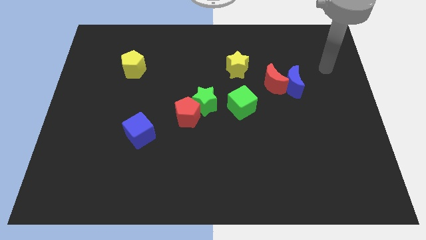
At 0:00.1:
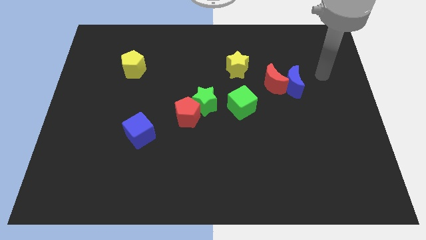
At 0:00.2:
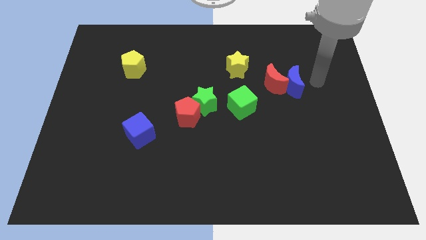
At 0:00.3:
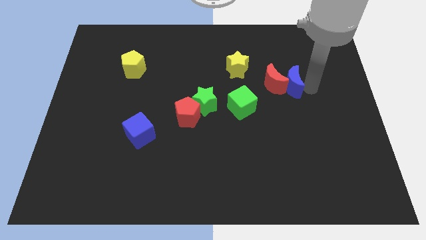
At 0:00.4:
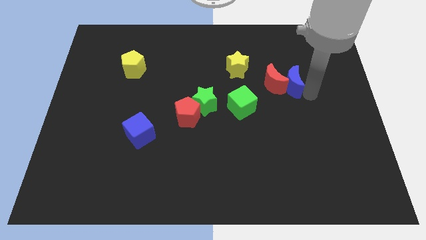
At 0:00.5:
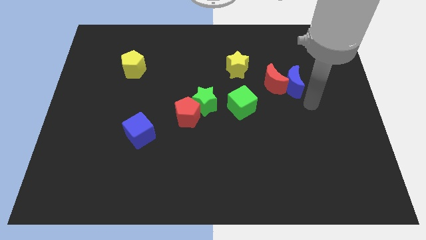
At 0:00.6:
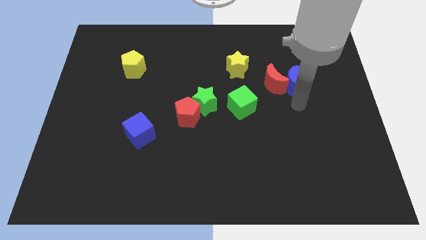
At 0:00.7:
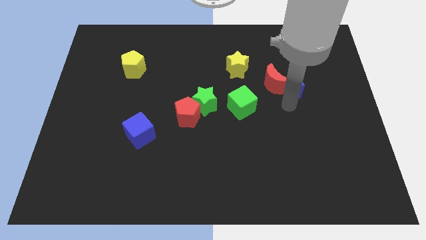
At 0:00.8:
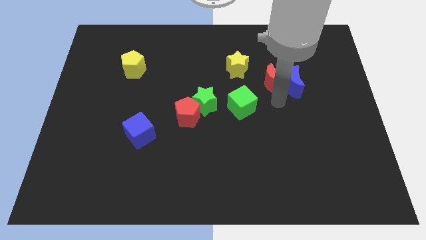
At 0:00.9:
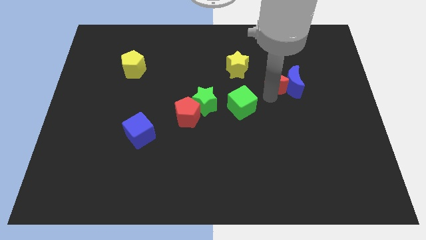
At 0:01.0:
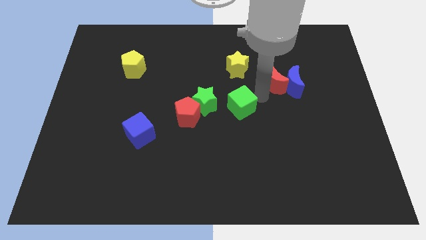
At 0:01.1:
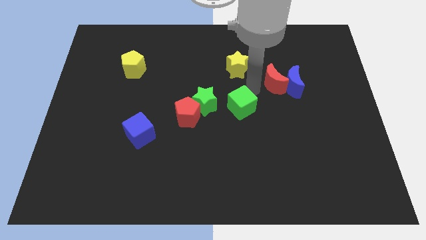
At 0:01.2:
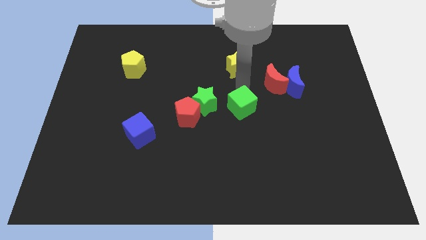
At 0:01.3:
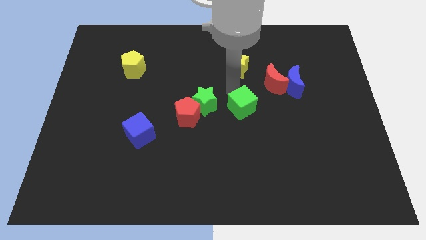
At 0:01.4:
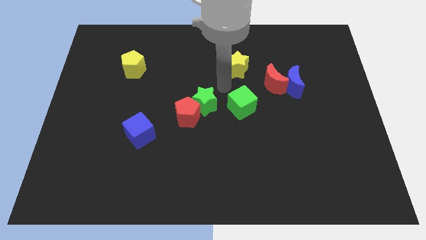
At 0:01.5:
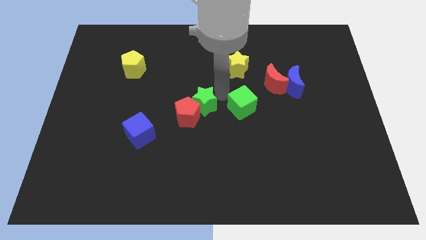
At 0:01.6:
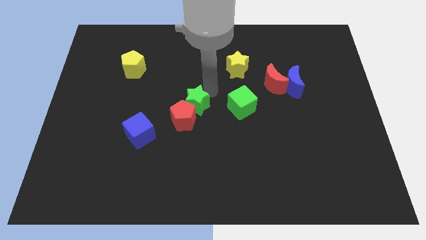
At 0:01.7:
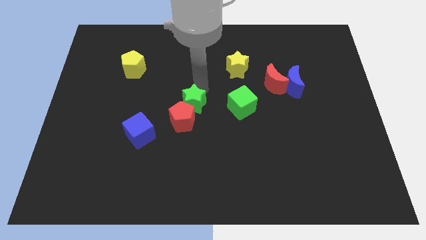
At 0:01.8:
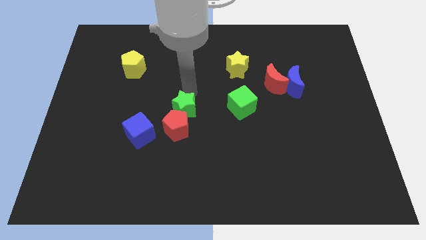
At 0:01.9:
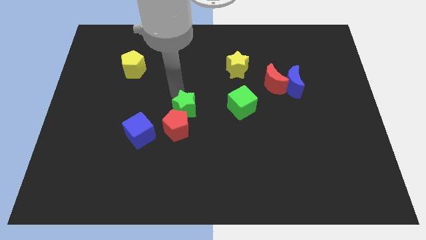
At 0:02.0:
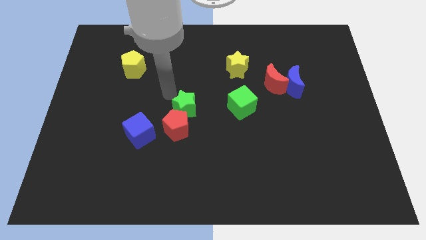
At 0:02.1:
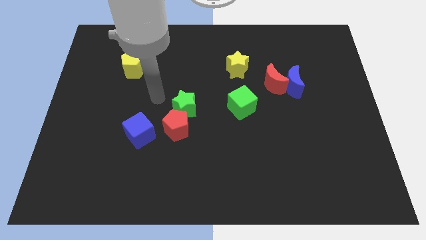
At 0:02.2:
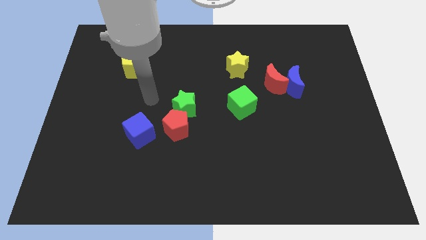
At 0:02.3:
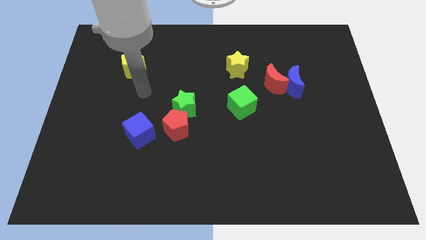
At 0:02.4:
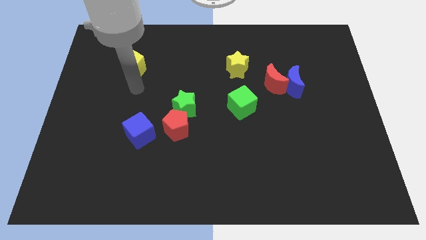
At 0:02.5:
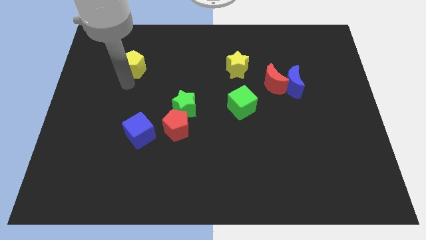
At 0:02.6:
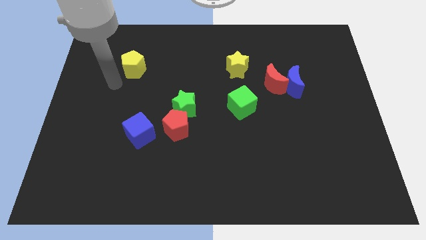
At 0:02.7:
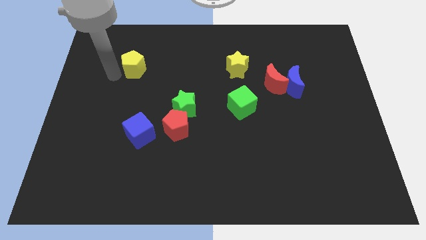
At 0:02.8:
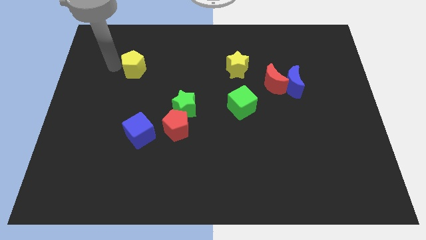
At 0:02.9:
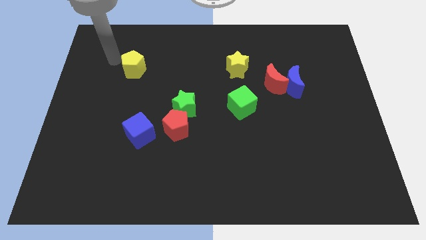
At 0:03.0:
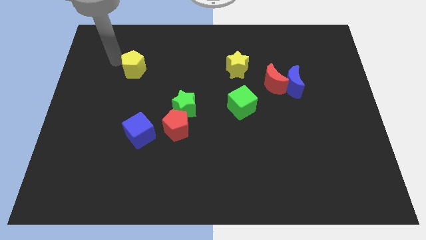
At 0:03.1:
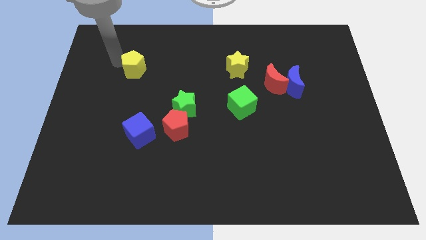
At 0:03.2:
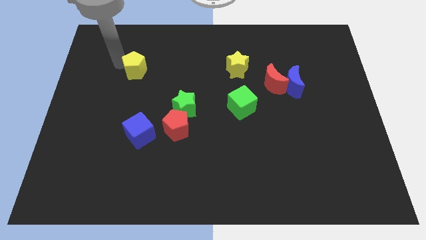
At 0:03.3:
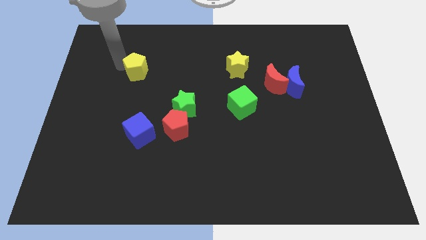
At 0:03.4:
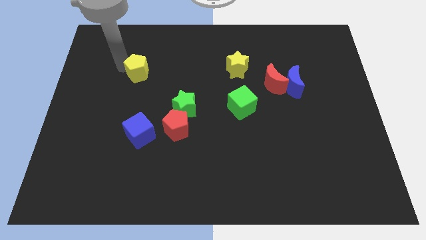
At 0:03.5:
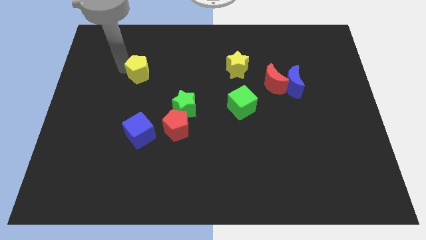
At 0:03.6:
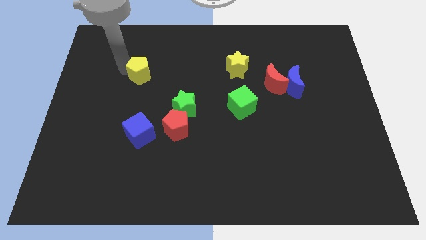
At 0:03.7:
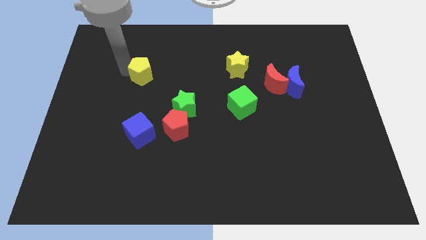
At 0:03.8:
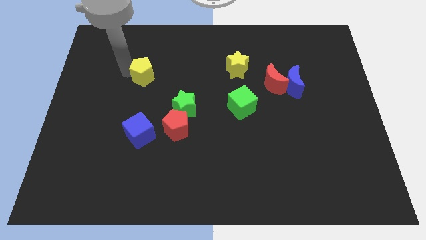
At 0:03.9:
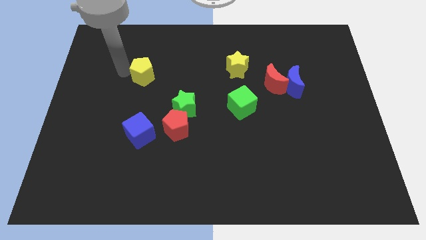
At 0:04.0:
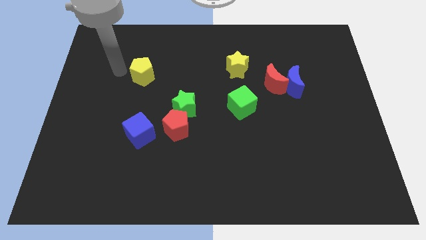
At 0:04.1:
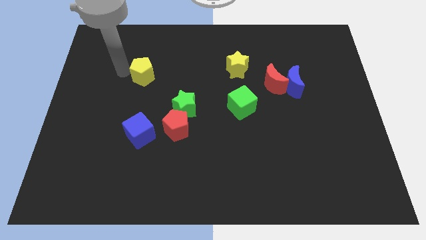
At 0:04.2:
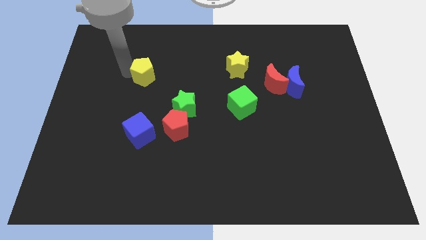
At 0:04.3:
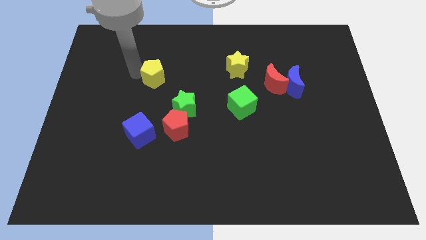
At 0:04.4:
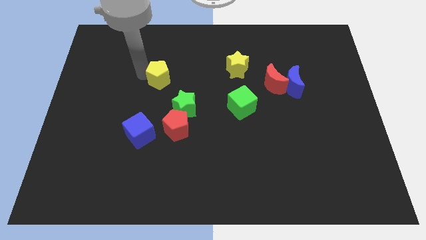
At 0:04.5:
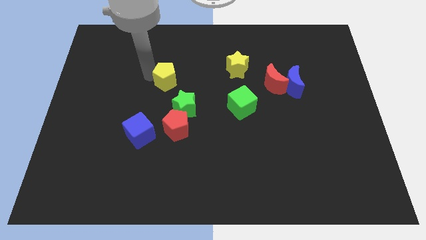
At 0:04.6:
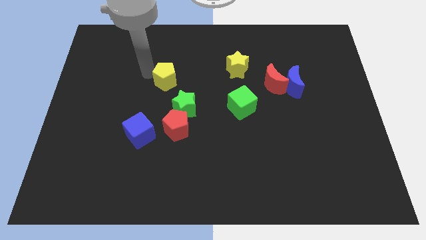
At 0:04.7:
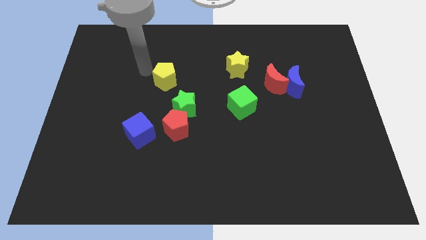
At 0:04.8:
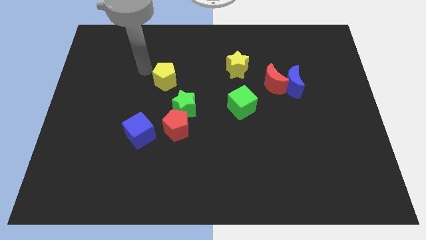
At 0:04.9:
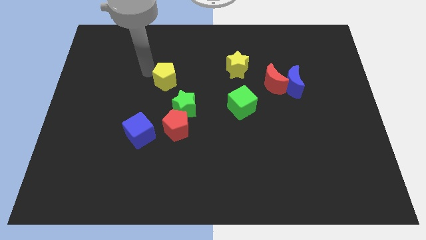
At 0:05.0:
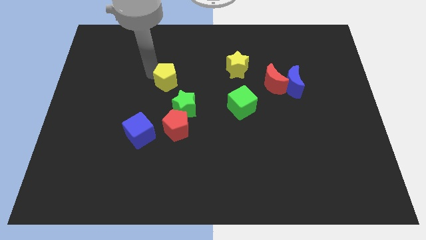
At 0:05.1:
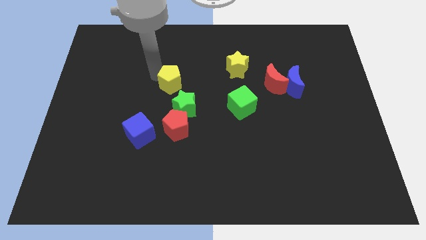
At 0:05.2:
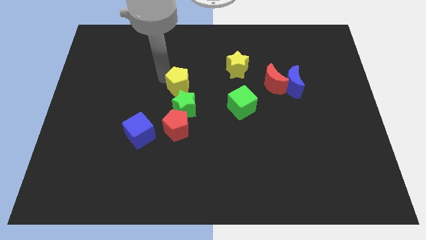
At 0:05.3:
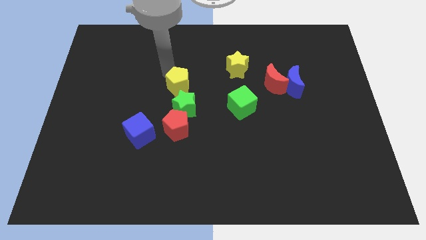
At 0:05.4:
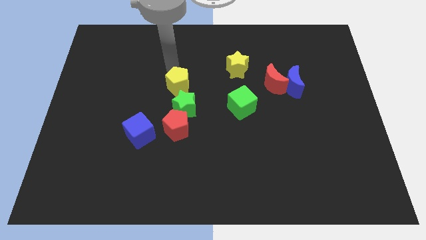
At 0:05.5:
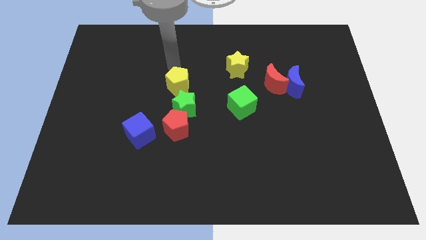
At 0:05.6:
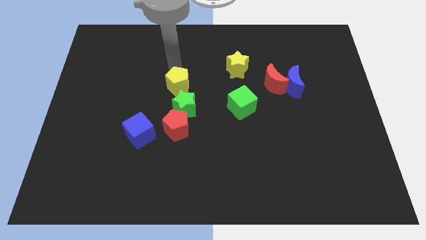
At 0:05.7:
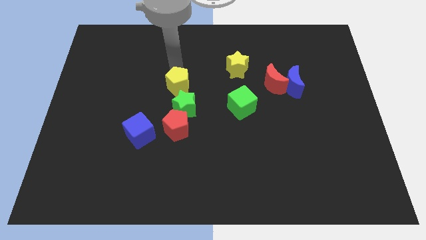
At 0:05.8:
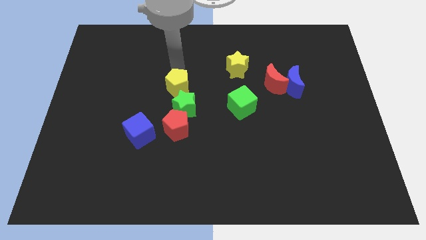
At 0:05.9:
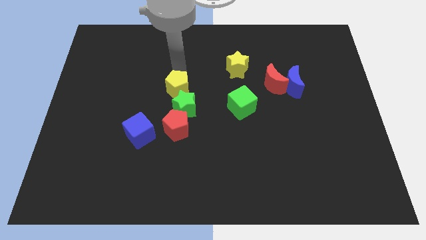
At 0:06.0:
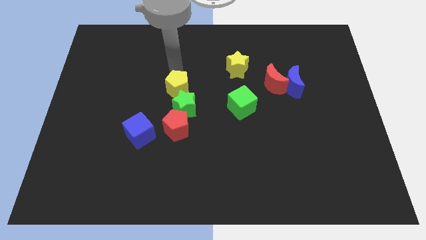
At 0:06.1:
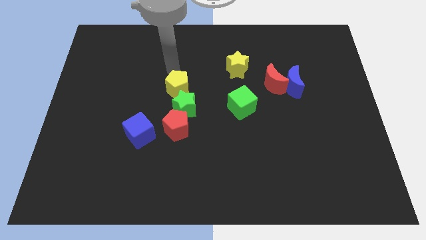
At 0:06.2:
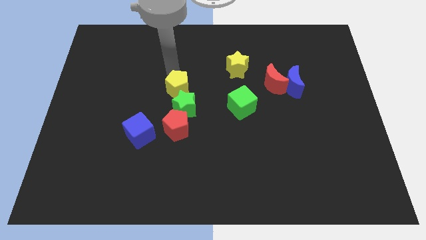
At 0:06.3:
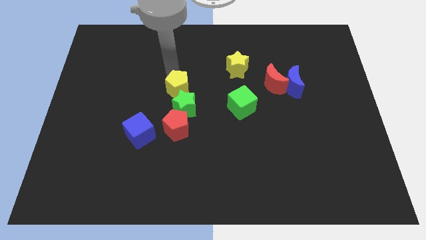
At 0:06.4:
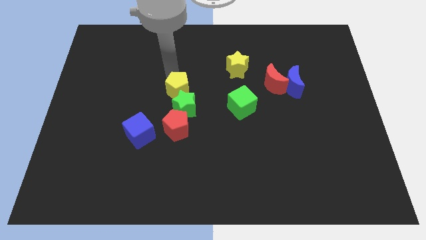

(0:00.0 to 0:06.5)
push the yellow pentagon close to the green star
